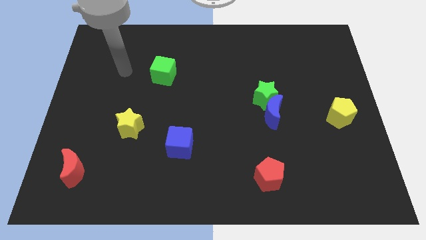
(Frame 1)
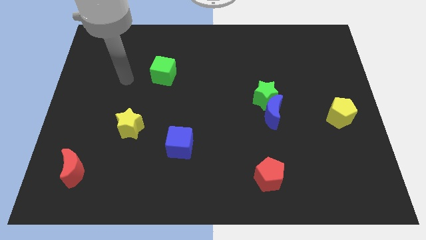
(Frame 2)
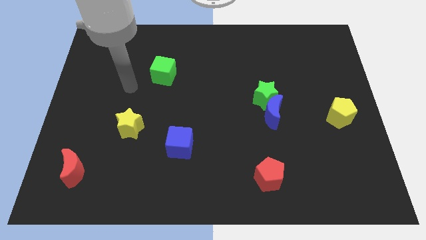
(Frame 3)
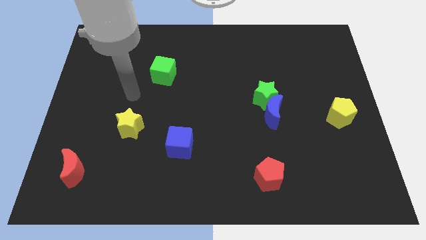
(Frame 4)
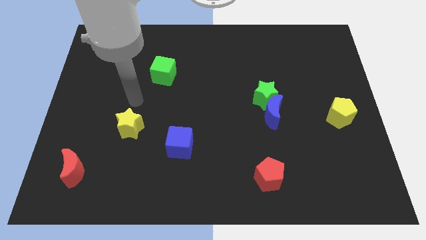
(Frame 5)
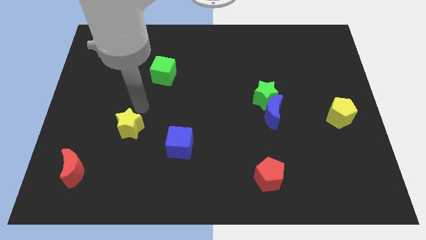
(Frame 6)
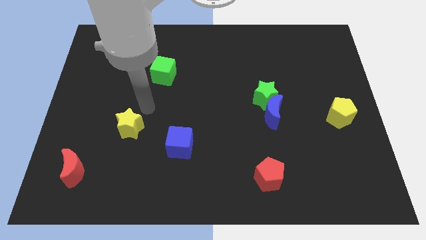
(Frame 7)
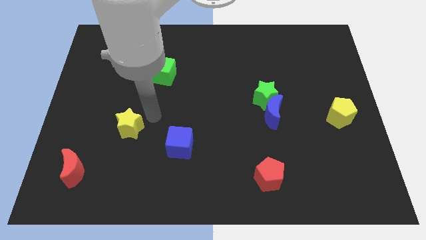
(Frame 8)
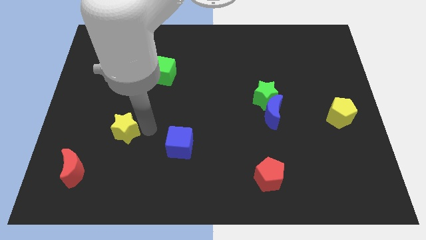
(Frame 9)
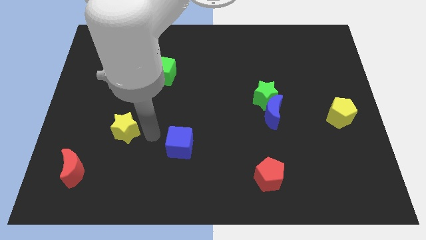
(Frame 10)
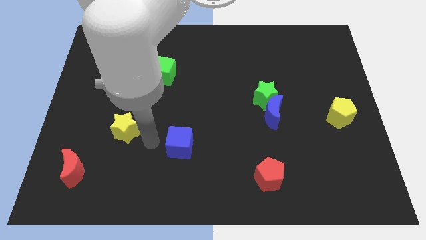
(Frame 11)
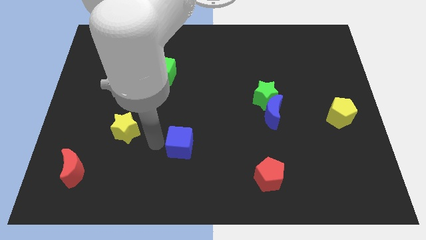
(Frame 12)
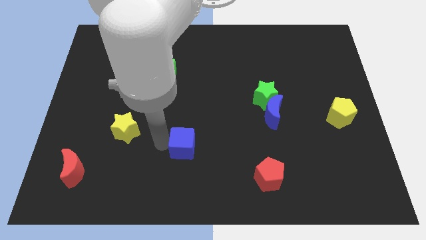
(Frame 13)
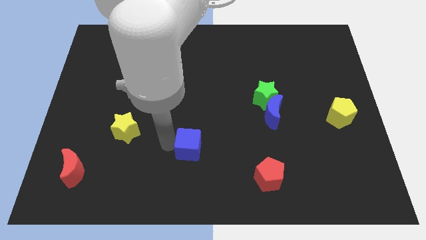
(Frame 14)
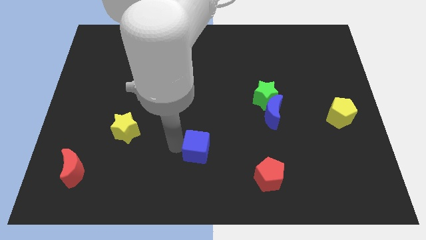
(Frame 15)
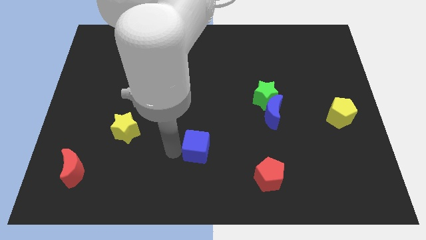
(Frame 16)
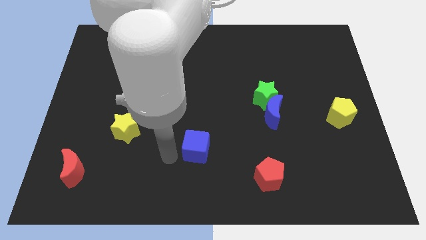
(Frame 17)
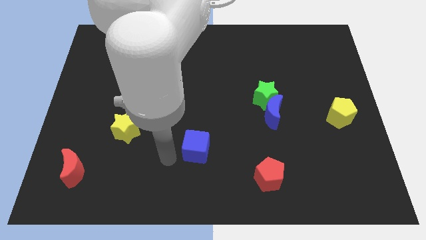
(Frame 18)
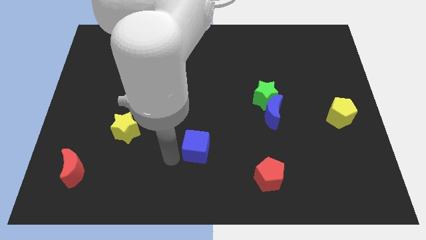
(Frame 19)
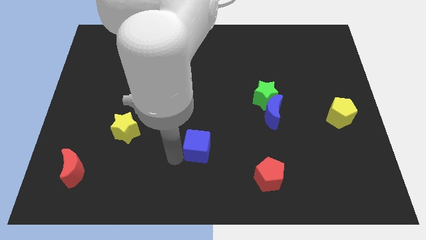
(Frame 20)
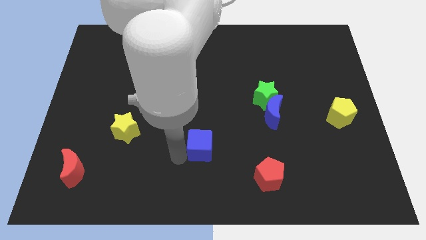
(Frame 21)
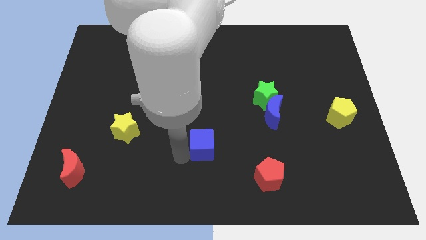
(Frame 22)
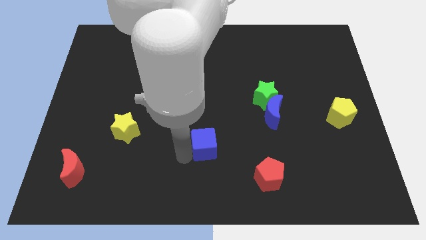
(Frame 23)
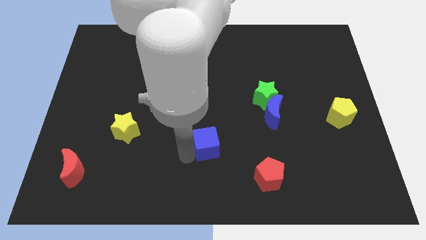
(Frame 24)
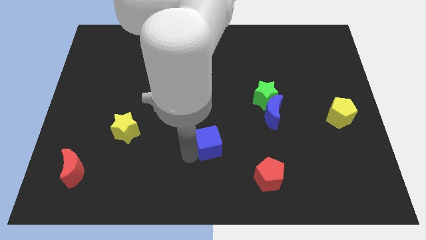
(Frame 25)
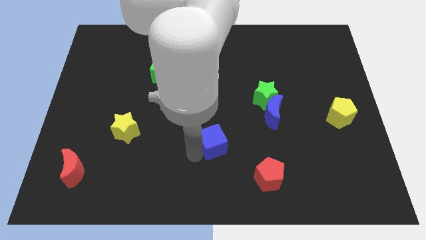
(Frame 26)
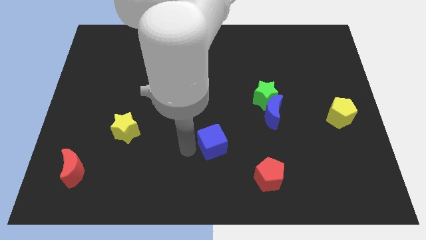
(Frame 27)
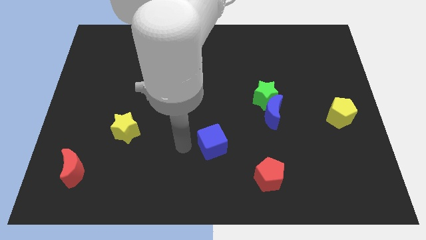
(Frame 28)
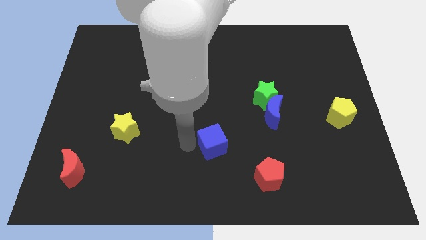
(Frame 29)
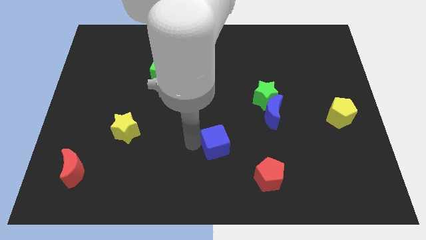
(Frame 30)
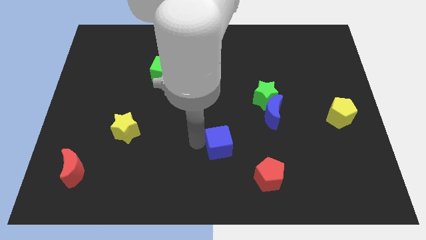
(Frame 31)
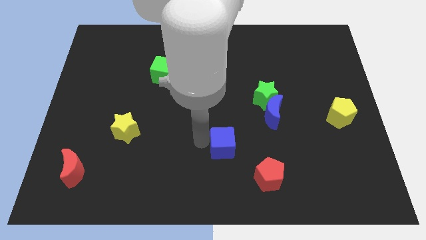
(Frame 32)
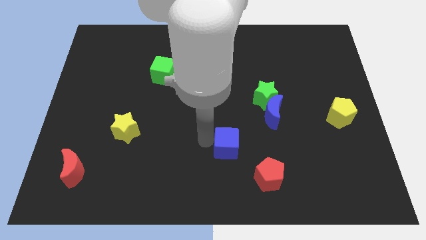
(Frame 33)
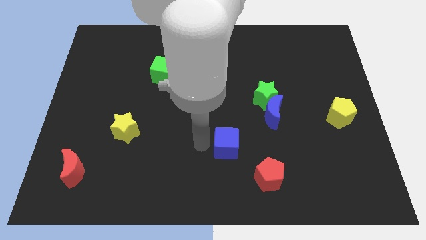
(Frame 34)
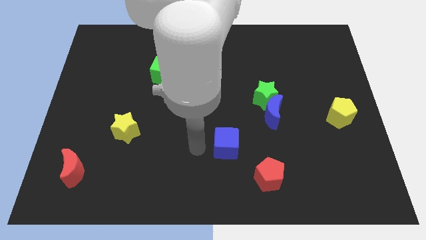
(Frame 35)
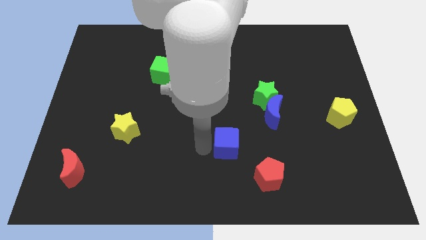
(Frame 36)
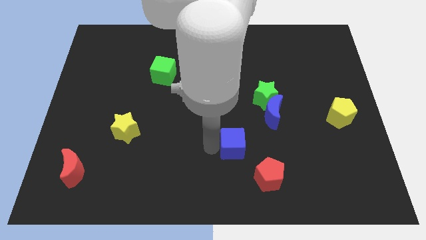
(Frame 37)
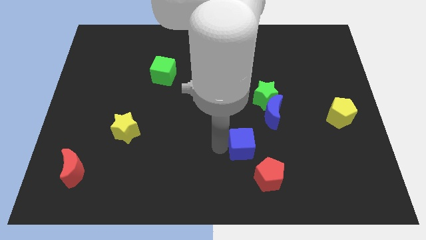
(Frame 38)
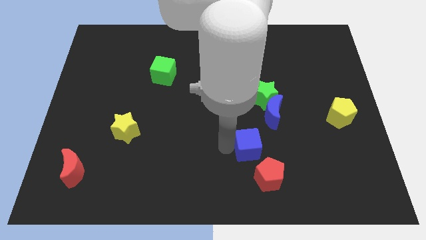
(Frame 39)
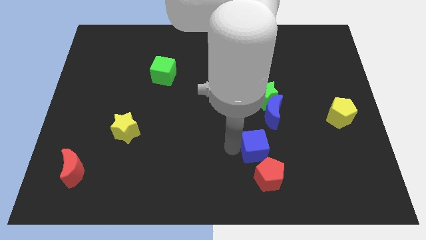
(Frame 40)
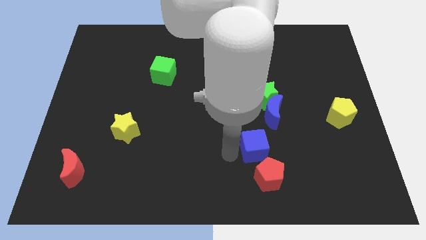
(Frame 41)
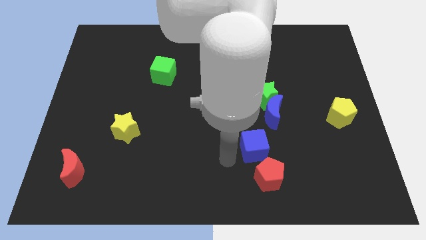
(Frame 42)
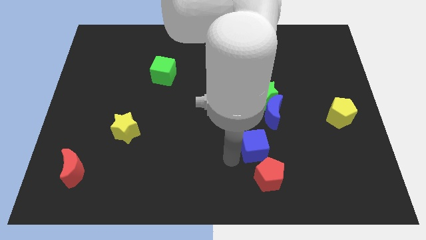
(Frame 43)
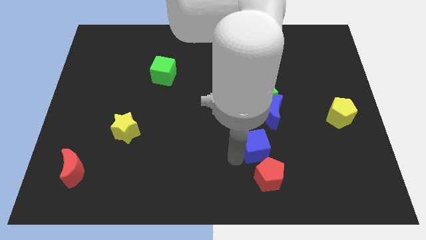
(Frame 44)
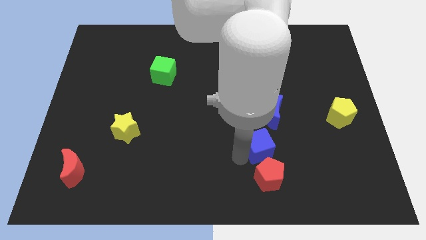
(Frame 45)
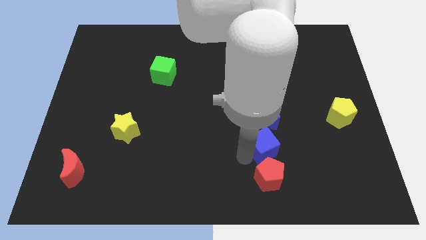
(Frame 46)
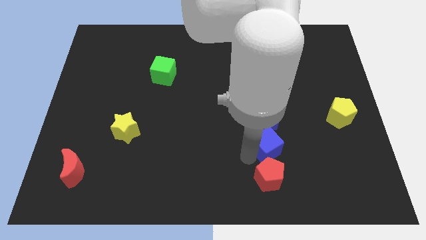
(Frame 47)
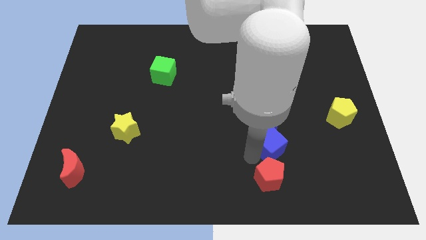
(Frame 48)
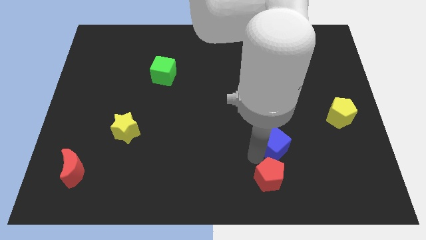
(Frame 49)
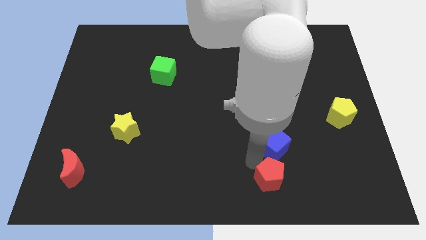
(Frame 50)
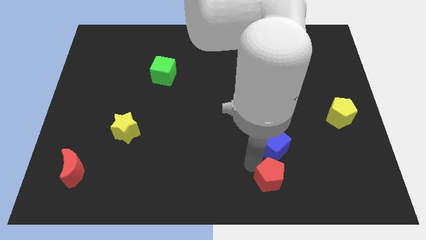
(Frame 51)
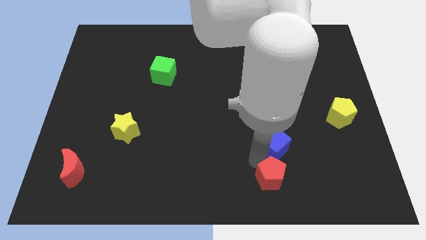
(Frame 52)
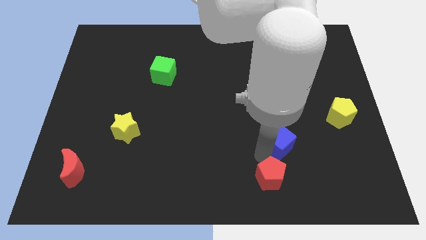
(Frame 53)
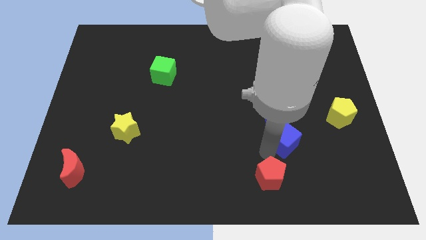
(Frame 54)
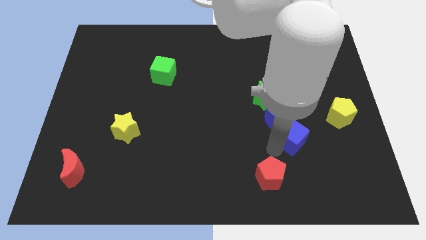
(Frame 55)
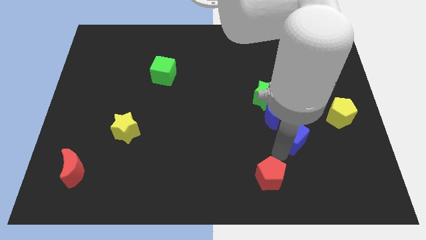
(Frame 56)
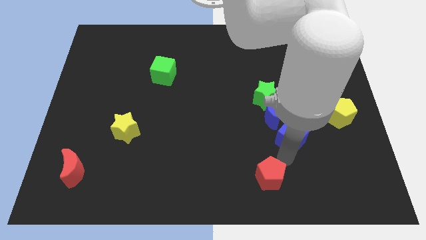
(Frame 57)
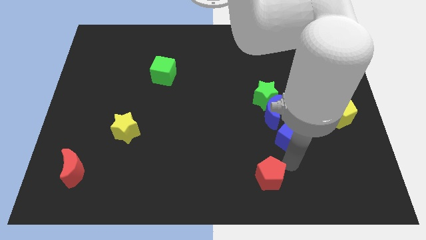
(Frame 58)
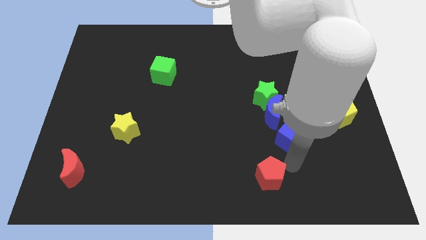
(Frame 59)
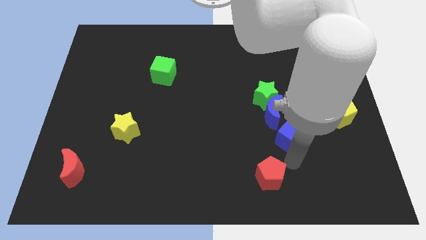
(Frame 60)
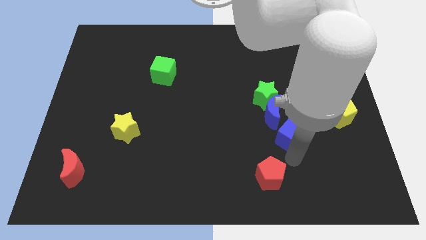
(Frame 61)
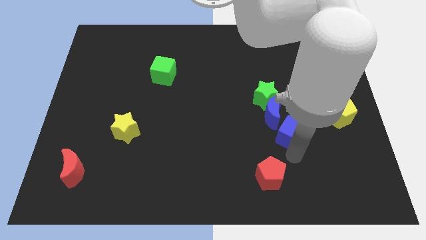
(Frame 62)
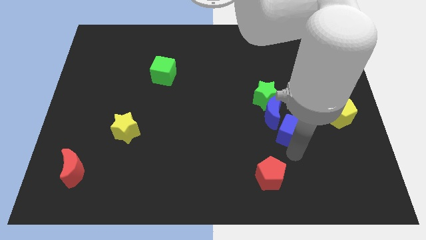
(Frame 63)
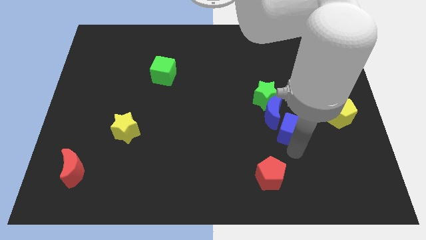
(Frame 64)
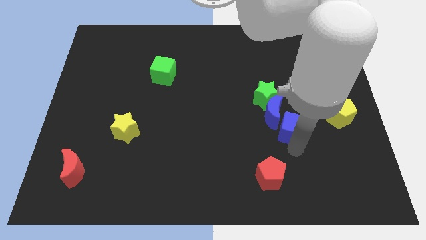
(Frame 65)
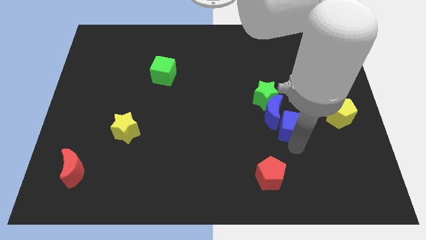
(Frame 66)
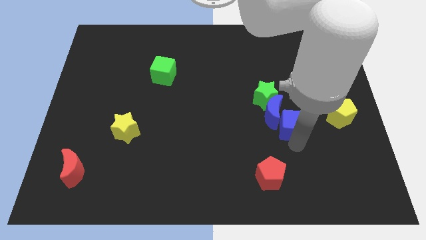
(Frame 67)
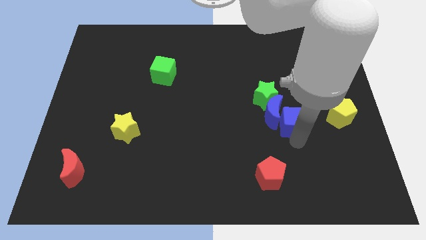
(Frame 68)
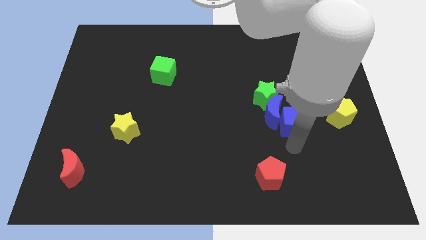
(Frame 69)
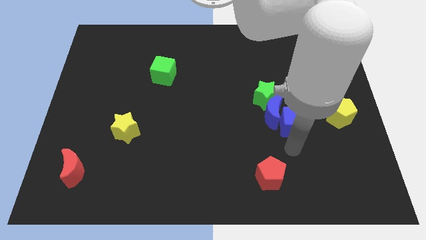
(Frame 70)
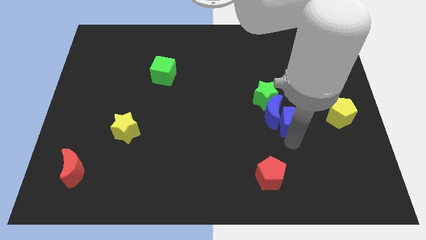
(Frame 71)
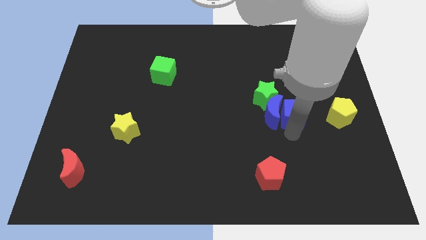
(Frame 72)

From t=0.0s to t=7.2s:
push the blue cube diagonally up and to the right of the blue moon

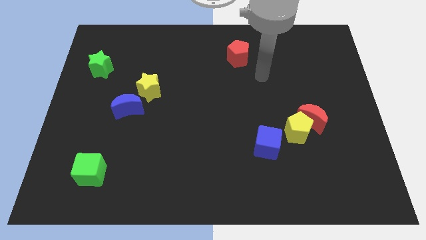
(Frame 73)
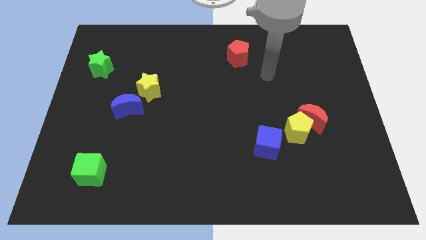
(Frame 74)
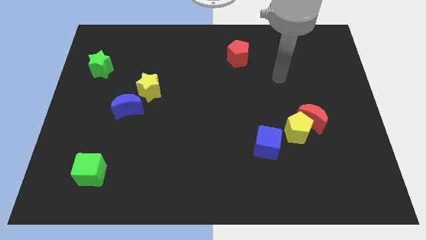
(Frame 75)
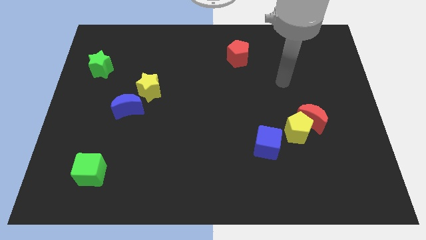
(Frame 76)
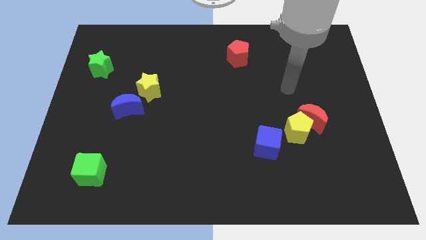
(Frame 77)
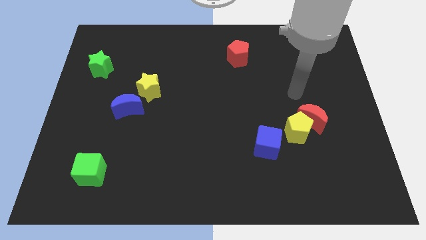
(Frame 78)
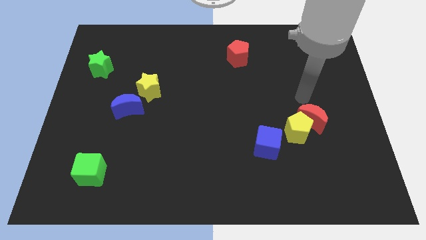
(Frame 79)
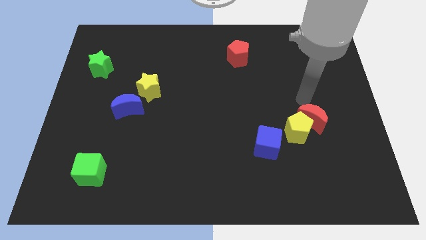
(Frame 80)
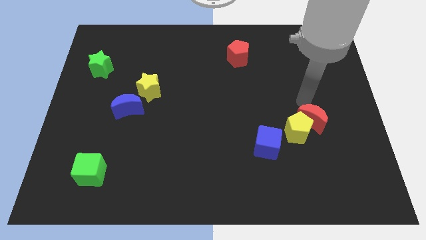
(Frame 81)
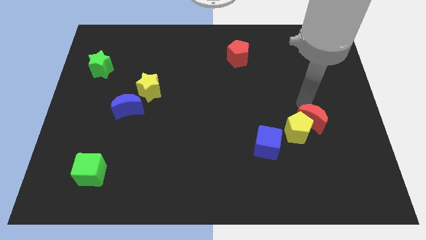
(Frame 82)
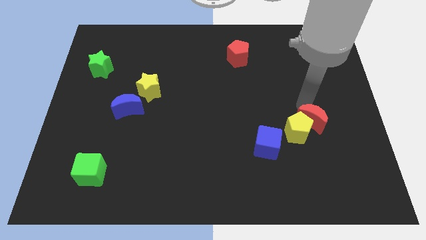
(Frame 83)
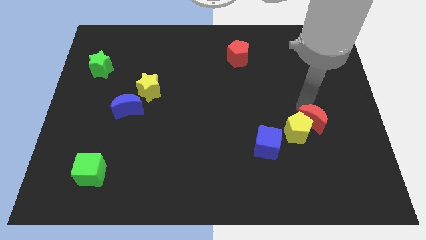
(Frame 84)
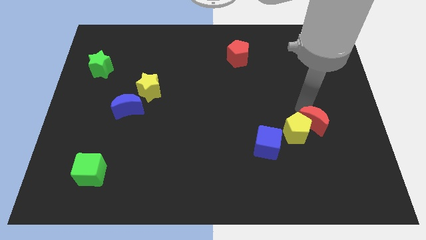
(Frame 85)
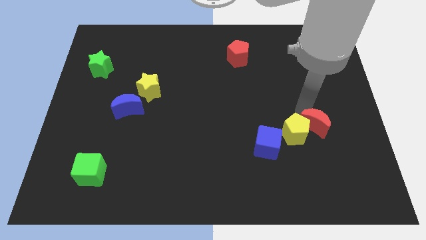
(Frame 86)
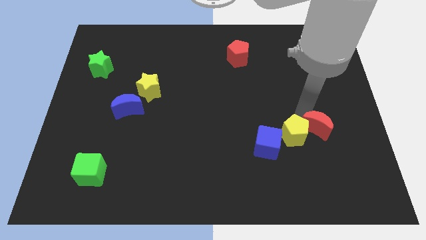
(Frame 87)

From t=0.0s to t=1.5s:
put the red moon to the right side of the blue cube
